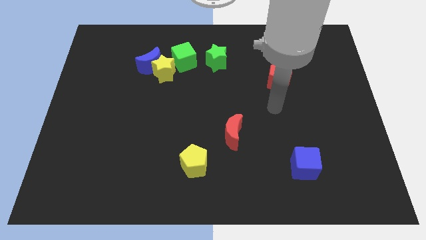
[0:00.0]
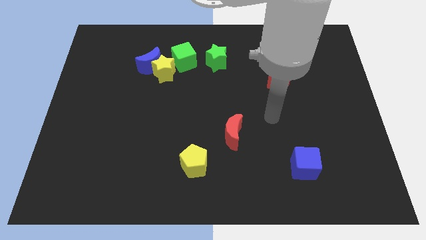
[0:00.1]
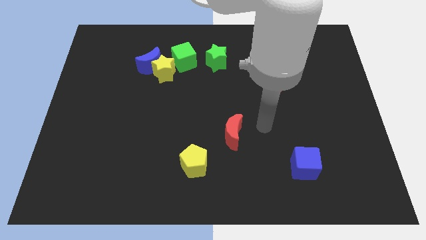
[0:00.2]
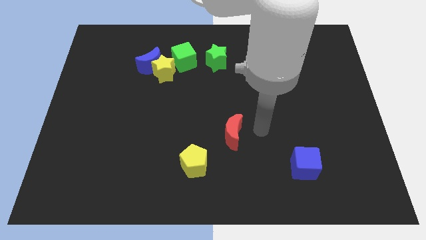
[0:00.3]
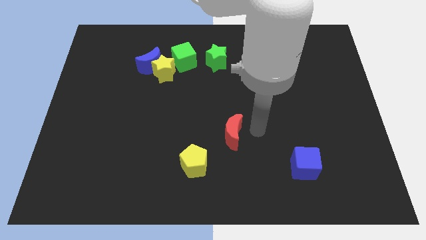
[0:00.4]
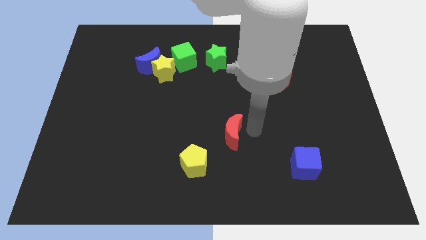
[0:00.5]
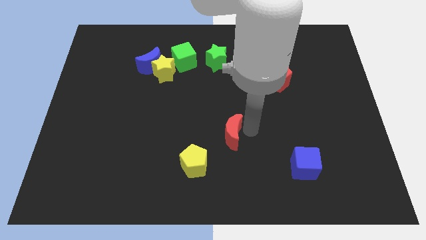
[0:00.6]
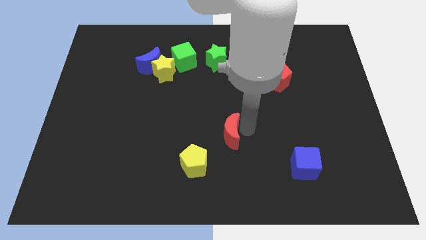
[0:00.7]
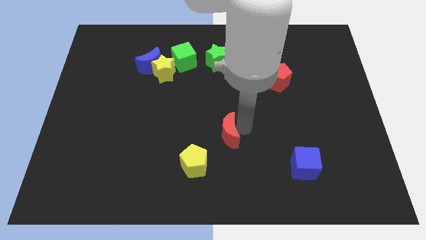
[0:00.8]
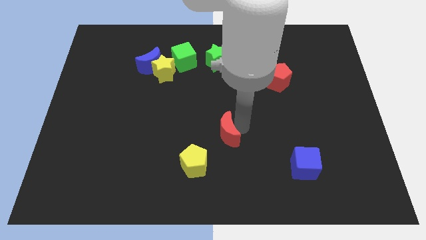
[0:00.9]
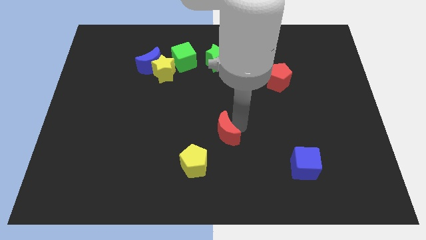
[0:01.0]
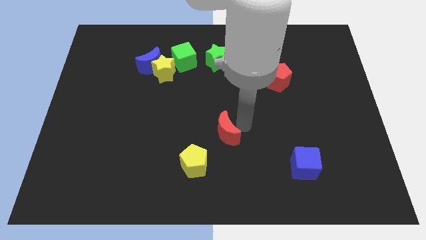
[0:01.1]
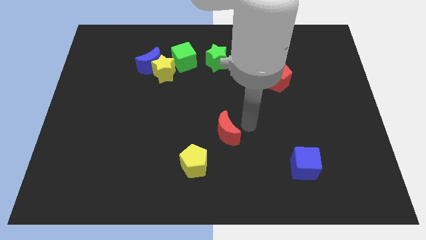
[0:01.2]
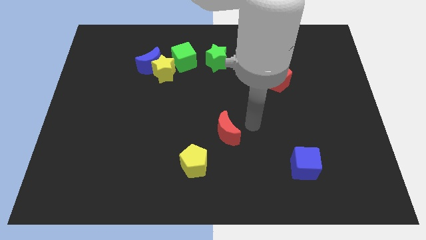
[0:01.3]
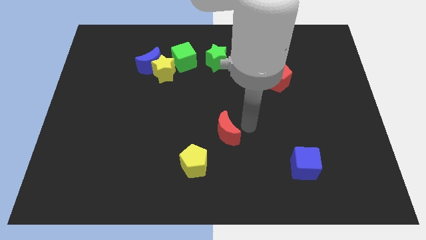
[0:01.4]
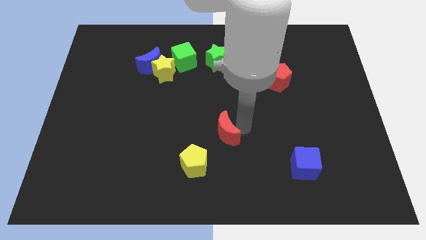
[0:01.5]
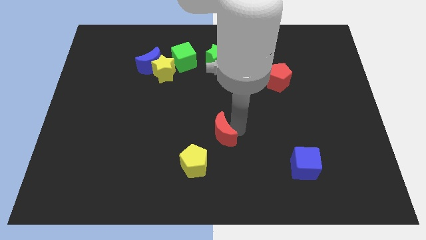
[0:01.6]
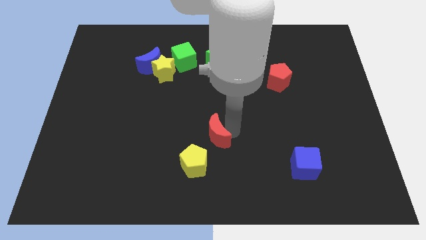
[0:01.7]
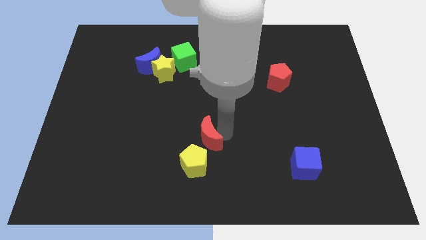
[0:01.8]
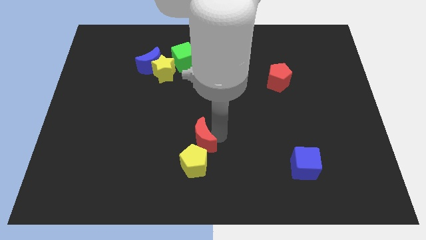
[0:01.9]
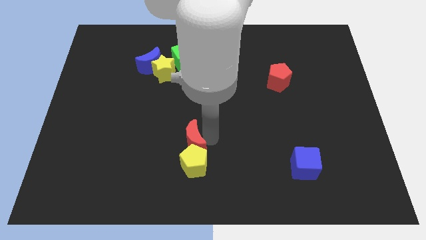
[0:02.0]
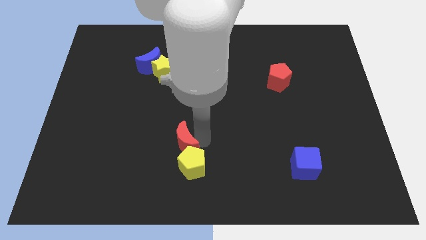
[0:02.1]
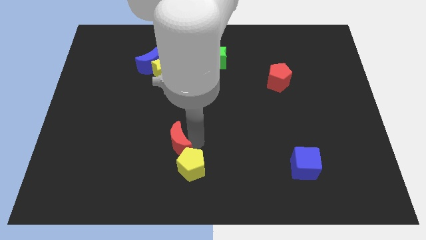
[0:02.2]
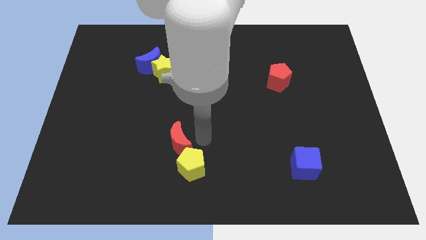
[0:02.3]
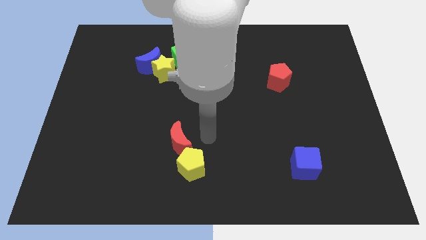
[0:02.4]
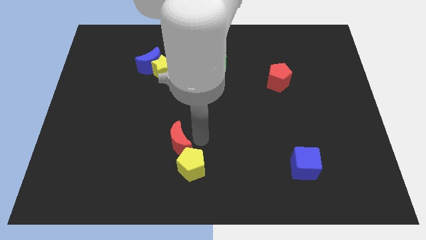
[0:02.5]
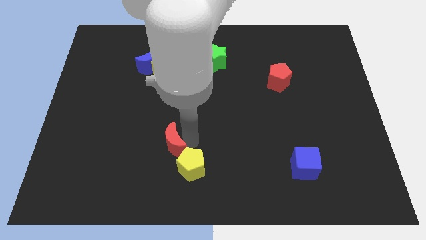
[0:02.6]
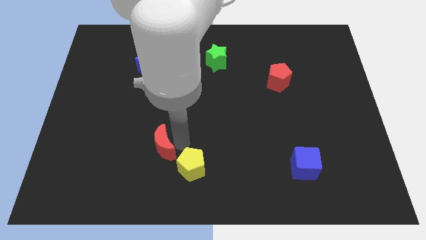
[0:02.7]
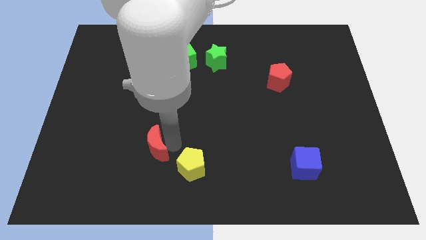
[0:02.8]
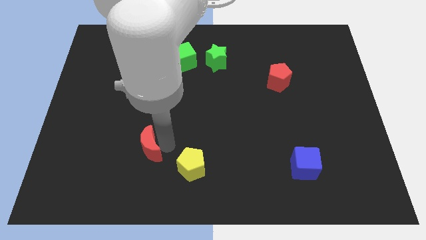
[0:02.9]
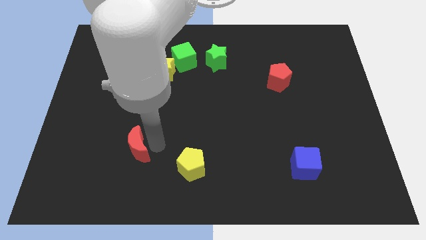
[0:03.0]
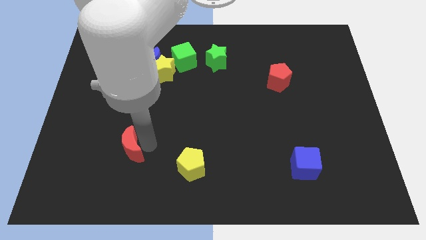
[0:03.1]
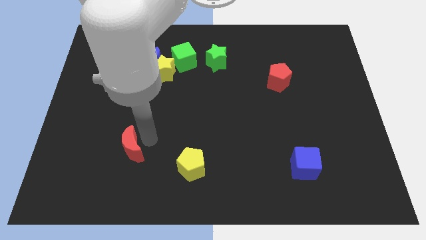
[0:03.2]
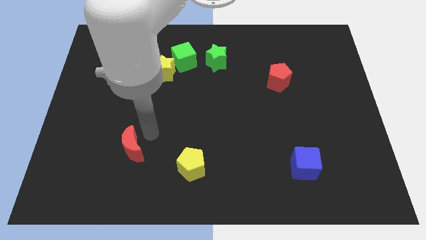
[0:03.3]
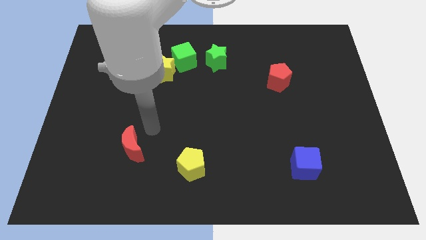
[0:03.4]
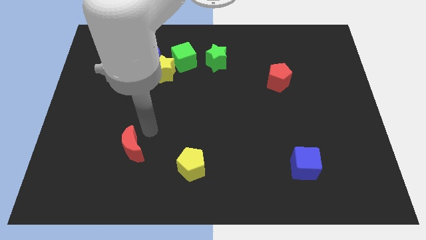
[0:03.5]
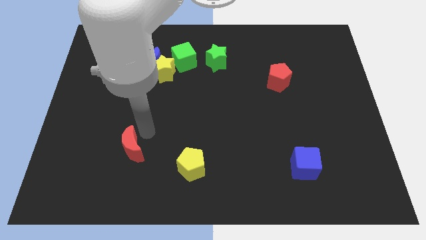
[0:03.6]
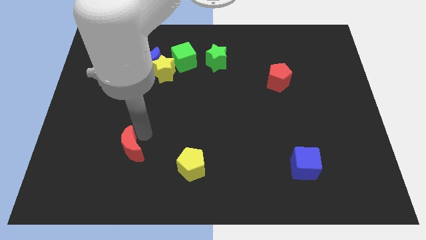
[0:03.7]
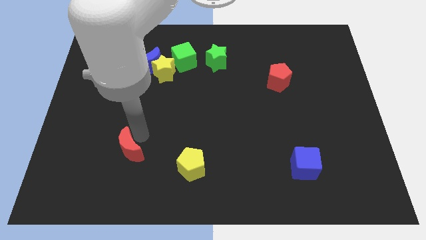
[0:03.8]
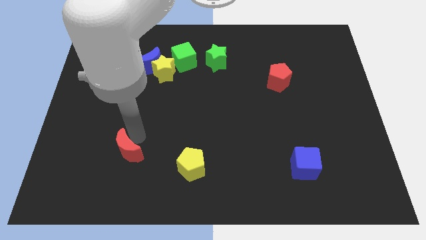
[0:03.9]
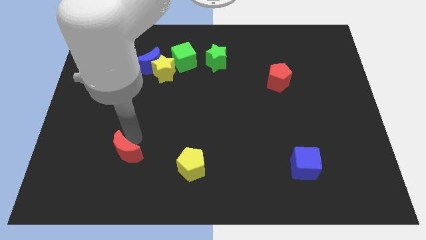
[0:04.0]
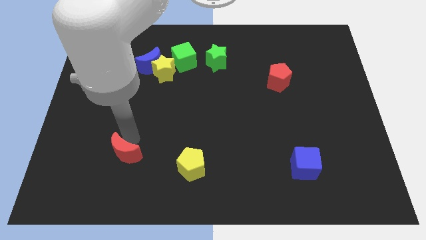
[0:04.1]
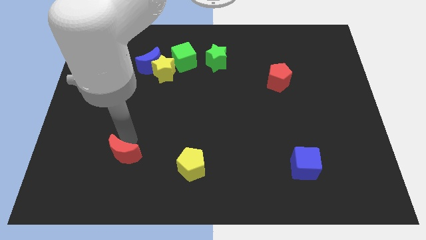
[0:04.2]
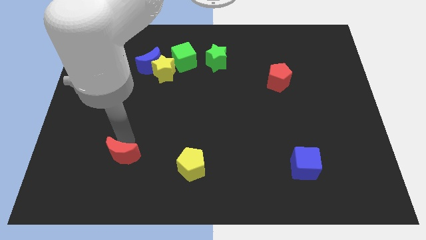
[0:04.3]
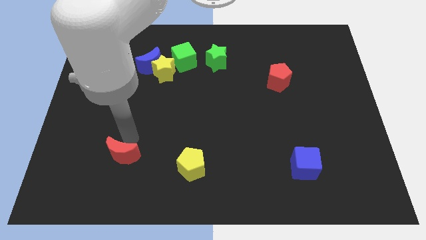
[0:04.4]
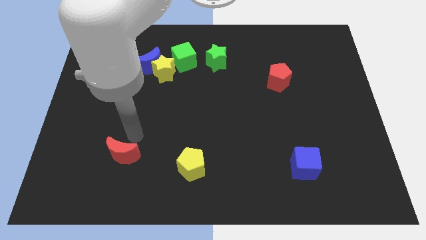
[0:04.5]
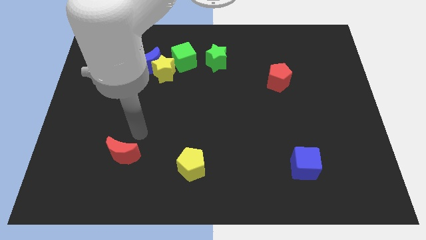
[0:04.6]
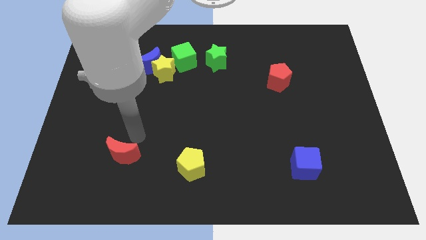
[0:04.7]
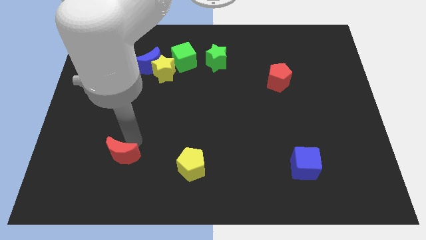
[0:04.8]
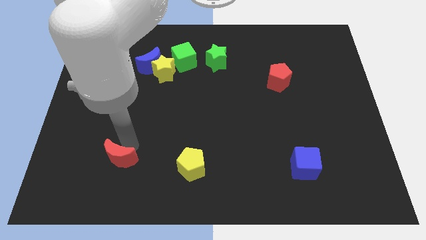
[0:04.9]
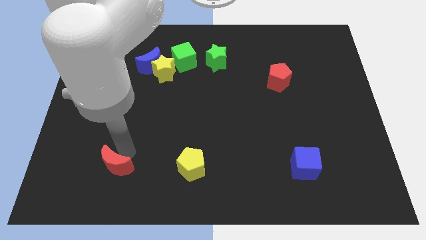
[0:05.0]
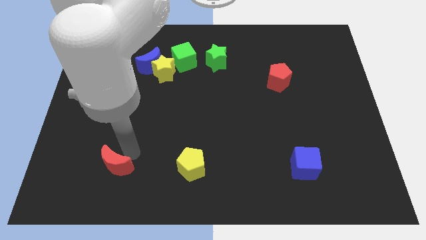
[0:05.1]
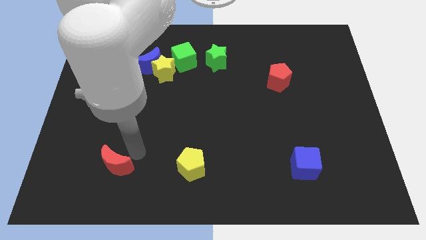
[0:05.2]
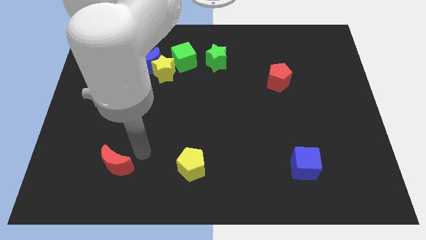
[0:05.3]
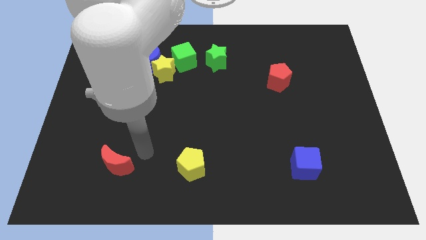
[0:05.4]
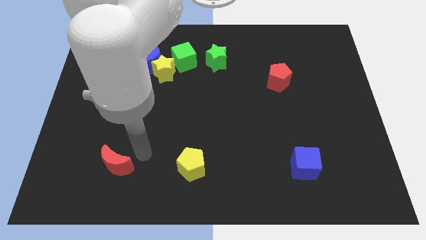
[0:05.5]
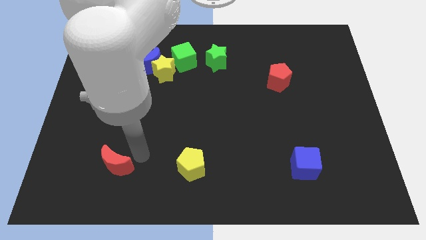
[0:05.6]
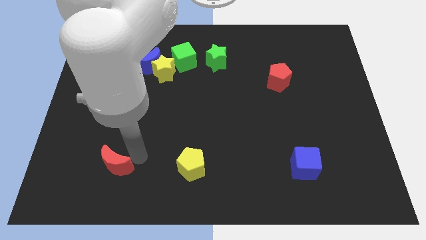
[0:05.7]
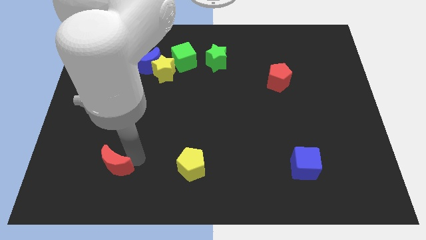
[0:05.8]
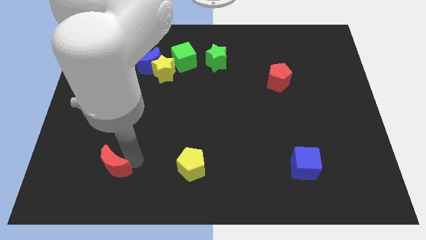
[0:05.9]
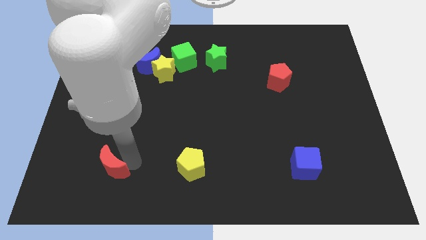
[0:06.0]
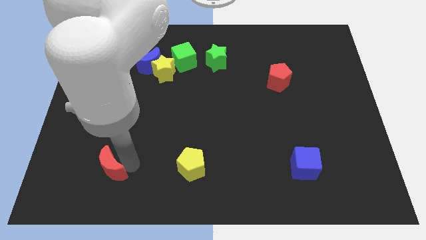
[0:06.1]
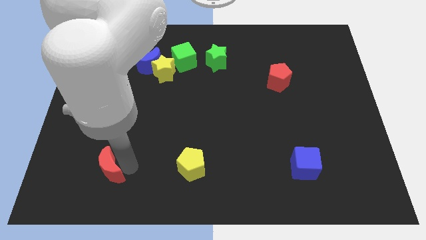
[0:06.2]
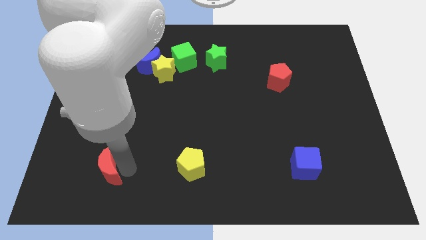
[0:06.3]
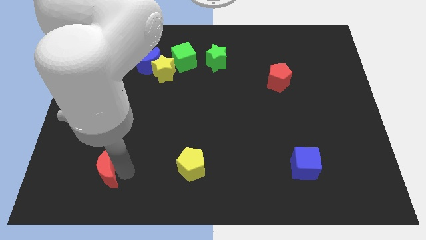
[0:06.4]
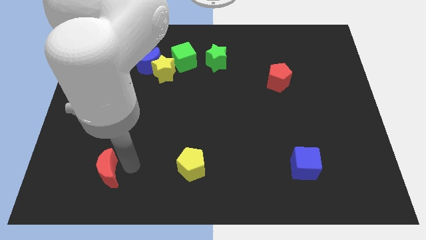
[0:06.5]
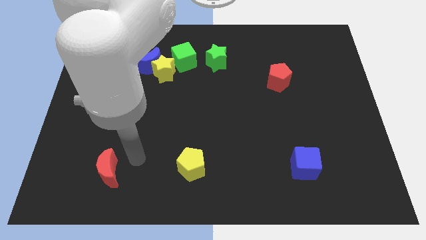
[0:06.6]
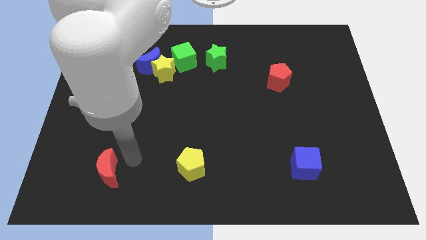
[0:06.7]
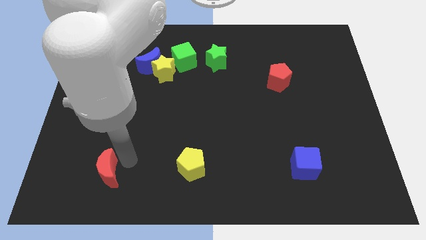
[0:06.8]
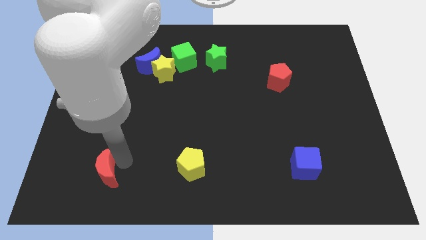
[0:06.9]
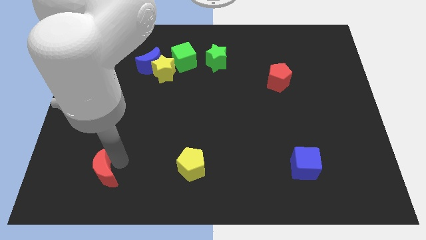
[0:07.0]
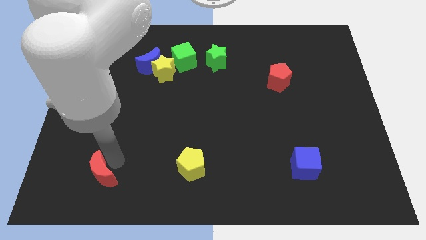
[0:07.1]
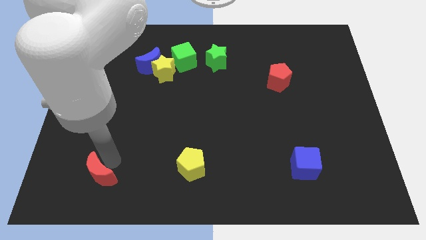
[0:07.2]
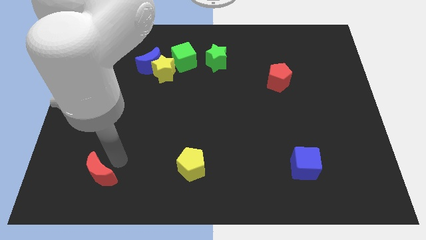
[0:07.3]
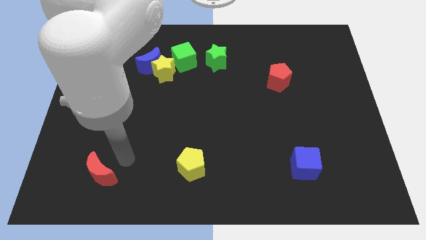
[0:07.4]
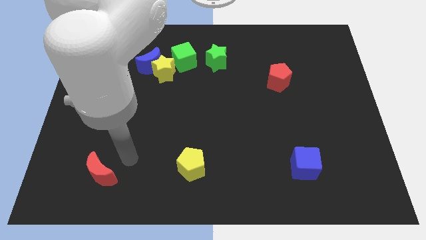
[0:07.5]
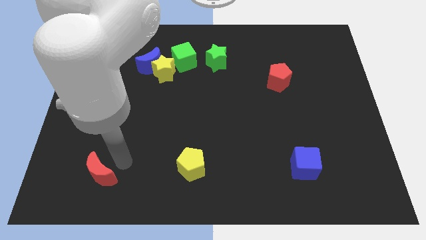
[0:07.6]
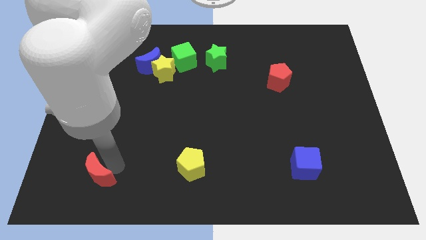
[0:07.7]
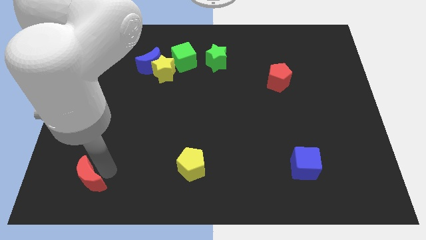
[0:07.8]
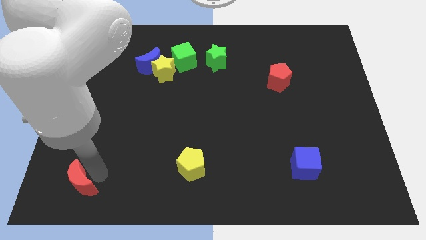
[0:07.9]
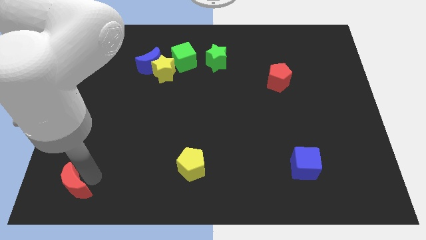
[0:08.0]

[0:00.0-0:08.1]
put the red moon to the bottom left of the board
